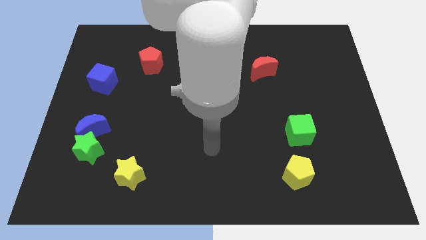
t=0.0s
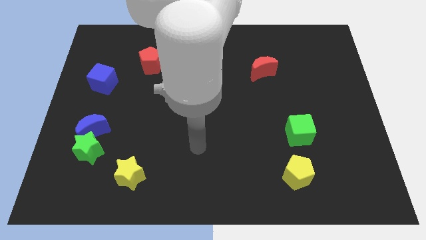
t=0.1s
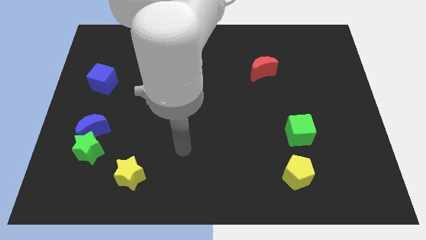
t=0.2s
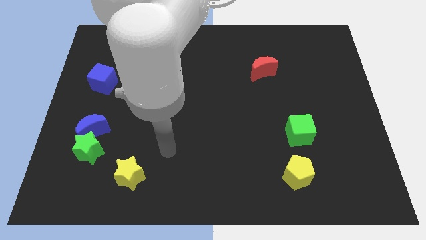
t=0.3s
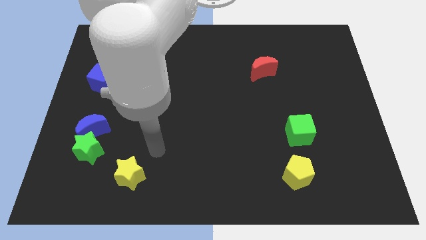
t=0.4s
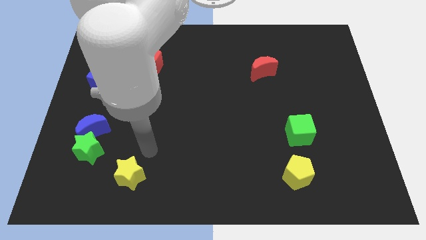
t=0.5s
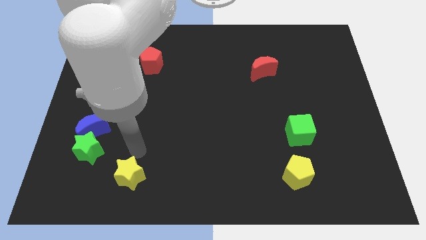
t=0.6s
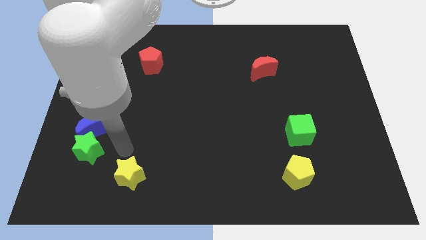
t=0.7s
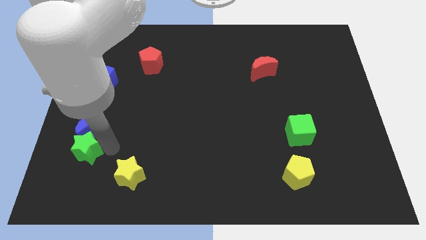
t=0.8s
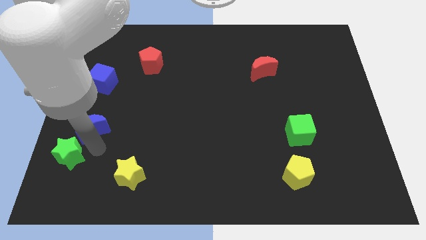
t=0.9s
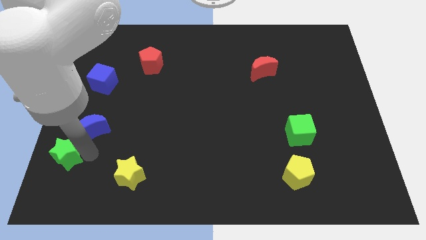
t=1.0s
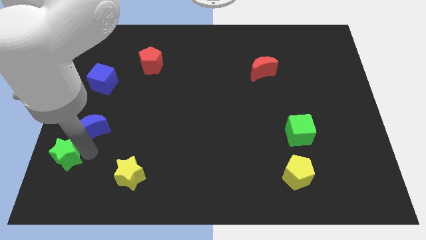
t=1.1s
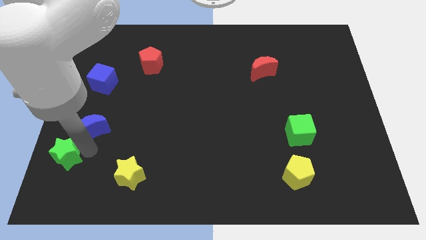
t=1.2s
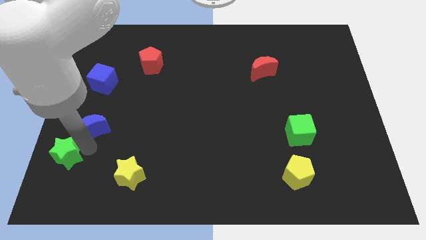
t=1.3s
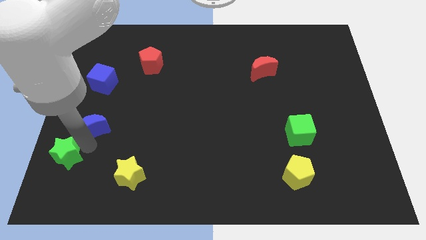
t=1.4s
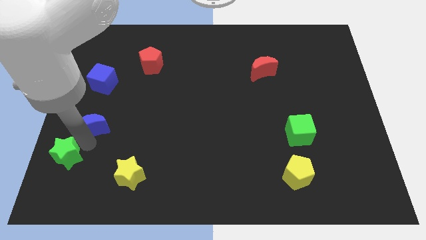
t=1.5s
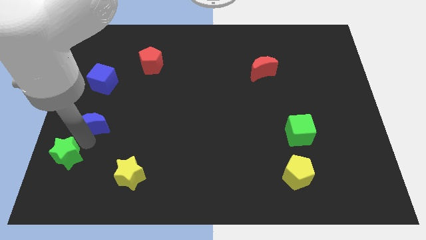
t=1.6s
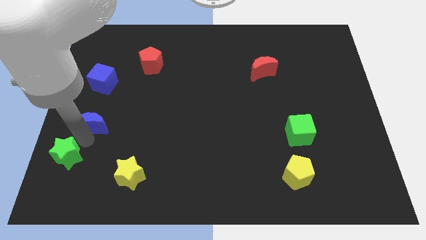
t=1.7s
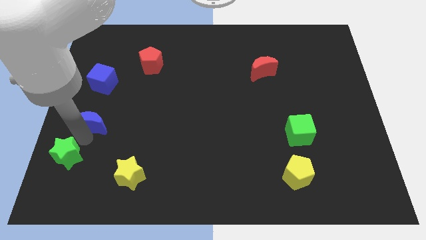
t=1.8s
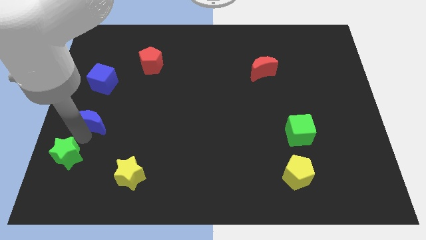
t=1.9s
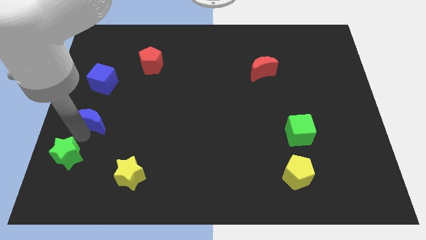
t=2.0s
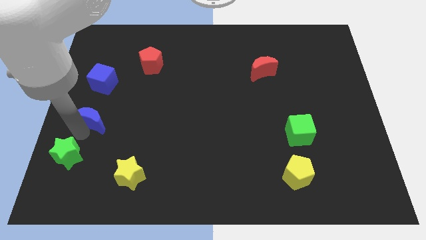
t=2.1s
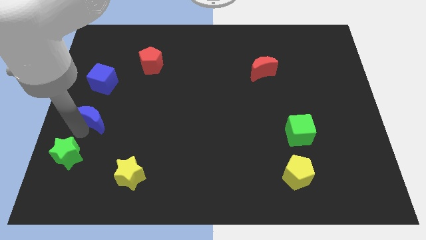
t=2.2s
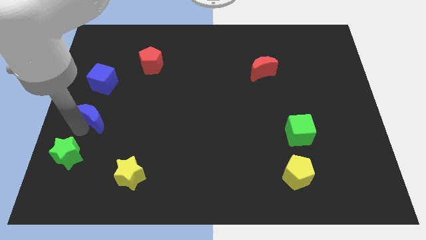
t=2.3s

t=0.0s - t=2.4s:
pull the blue moon apart from the green star

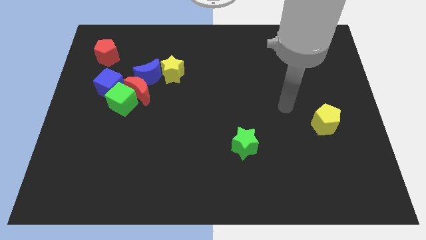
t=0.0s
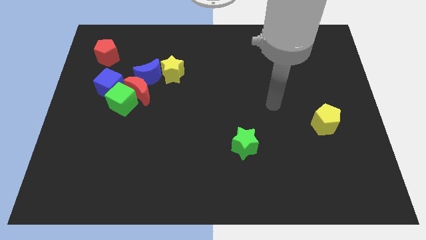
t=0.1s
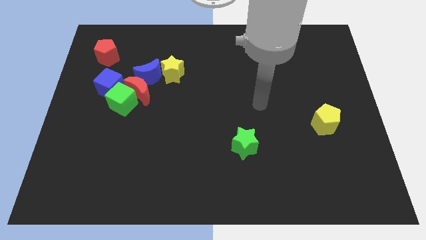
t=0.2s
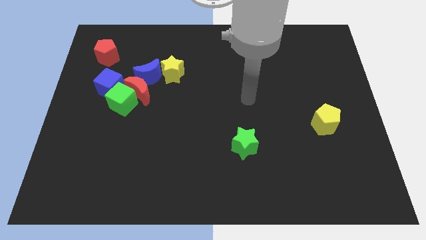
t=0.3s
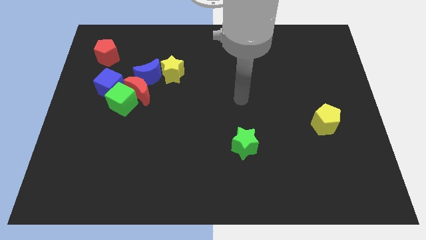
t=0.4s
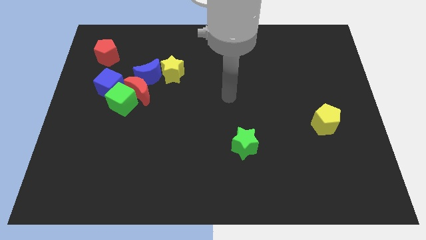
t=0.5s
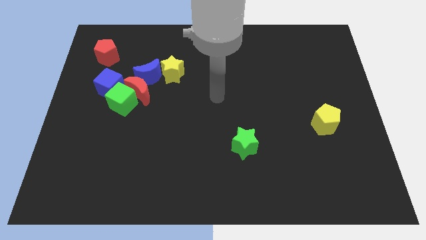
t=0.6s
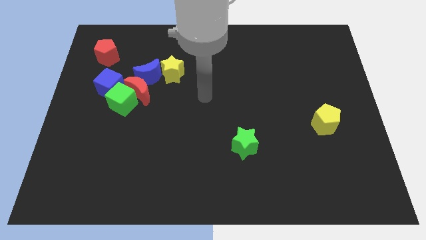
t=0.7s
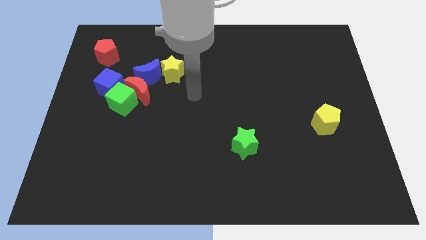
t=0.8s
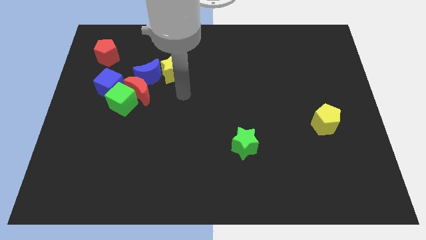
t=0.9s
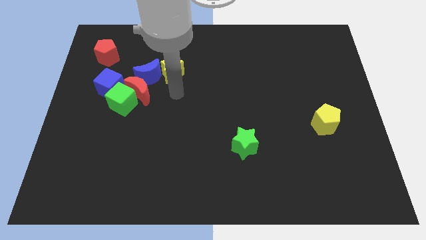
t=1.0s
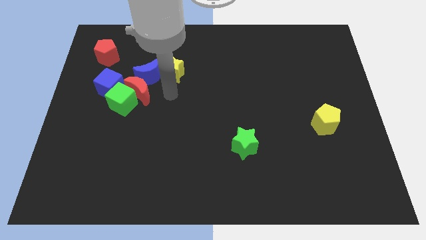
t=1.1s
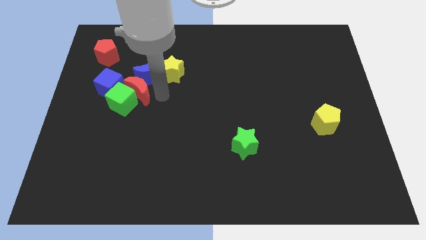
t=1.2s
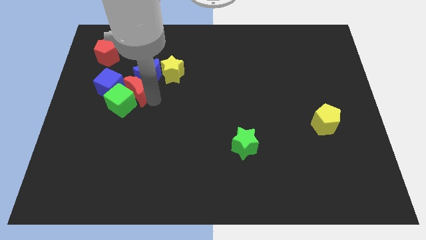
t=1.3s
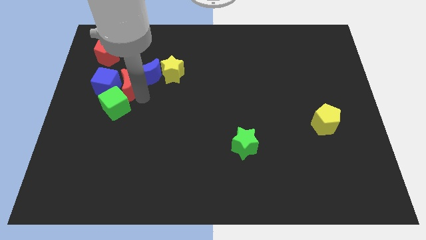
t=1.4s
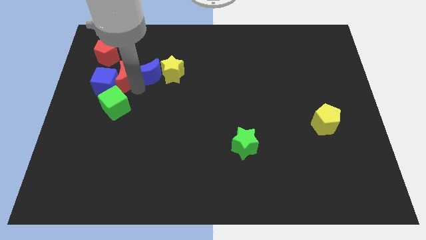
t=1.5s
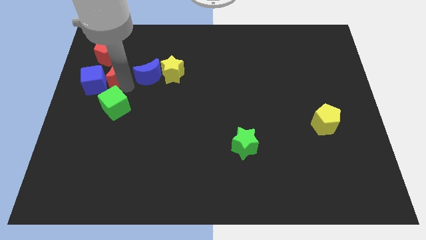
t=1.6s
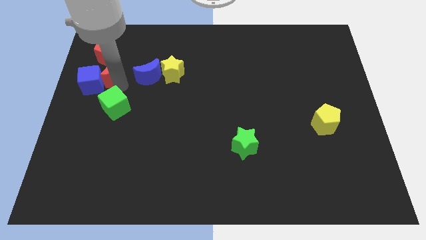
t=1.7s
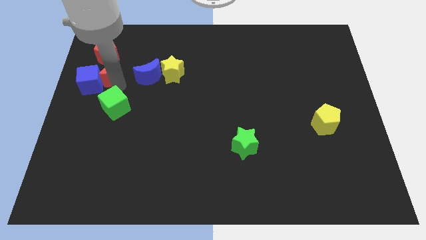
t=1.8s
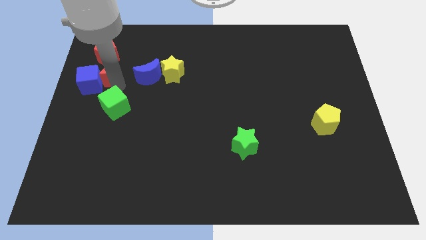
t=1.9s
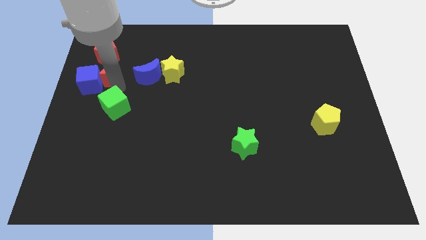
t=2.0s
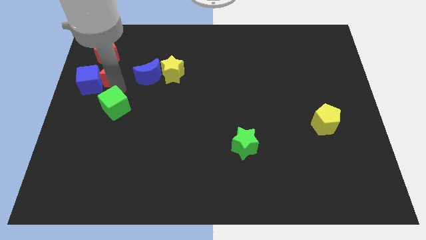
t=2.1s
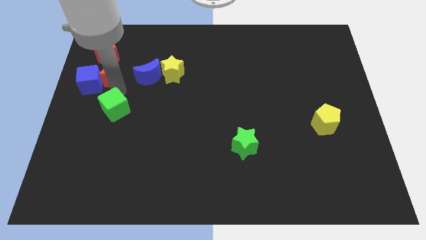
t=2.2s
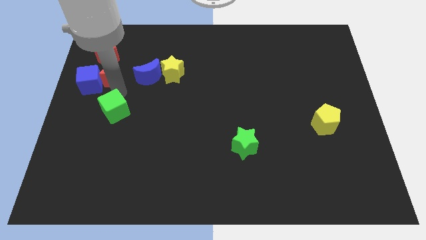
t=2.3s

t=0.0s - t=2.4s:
separate the green cube from the red moon, blue cube, and blue moon

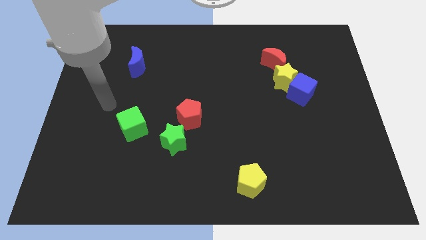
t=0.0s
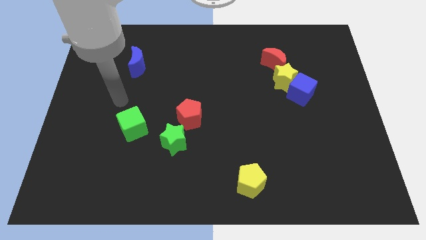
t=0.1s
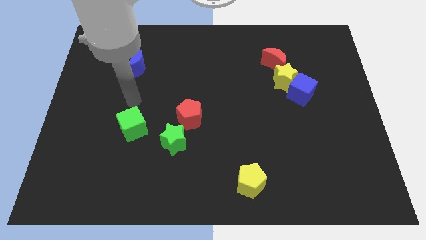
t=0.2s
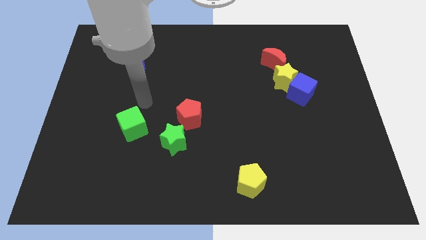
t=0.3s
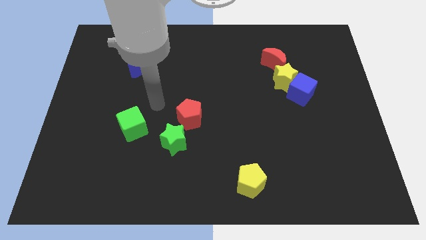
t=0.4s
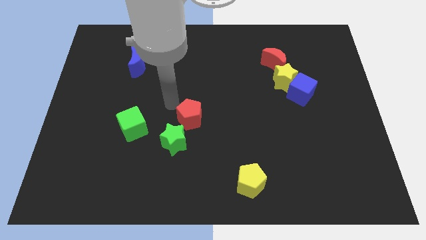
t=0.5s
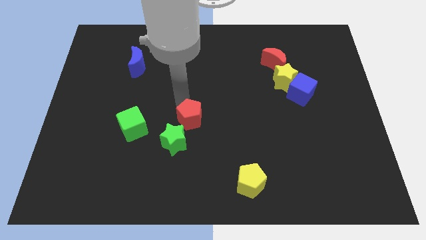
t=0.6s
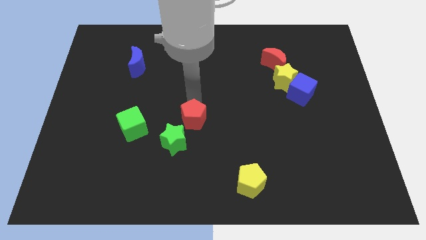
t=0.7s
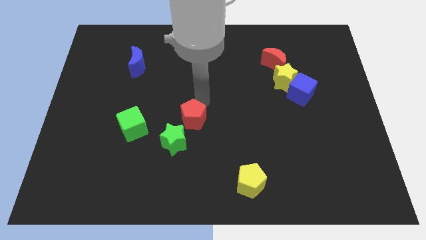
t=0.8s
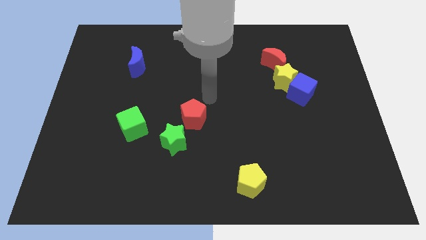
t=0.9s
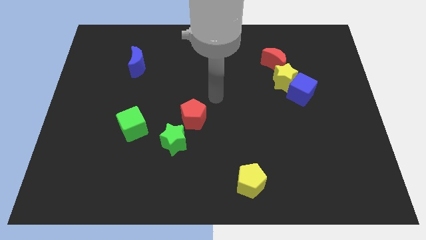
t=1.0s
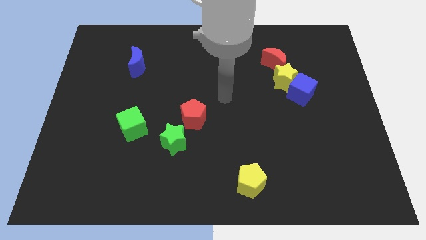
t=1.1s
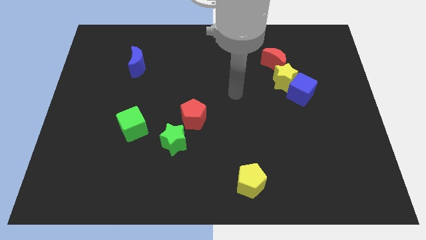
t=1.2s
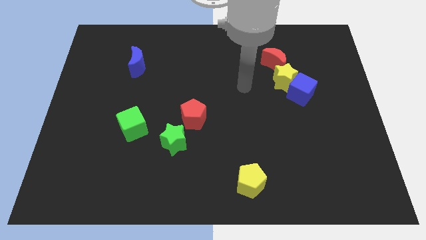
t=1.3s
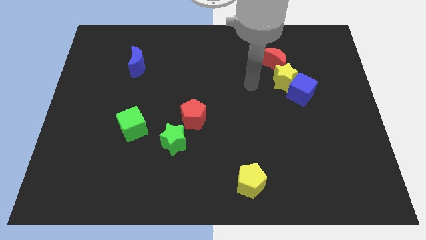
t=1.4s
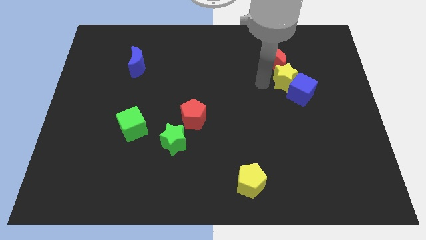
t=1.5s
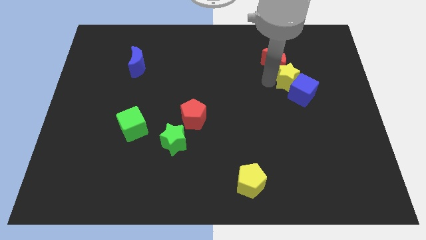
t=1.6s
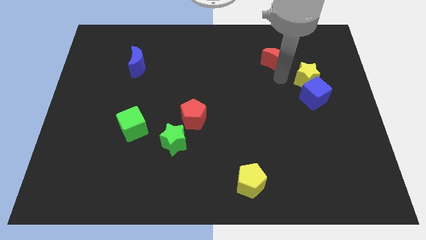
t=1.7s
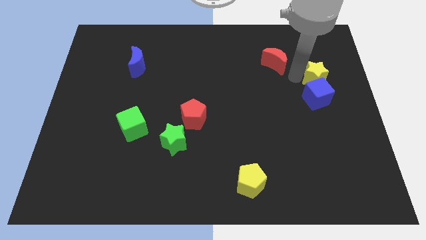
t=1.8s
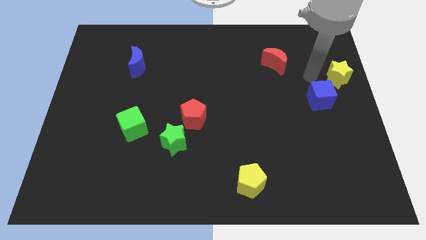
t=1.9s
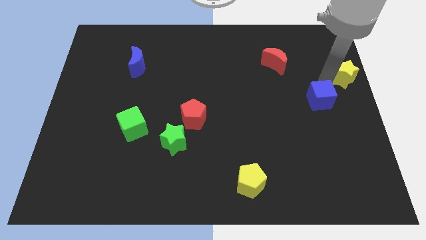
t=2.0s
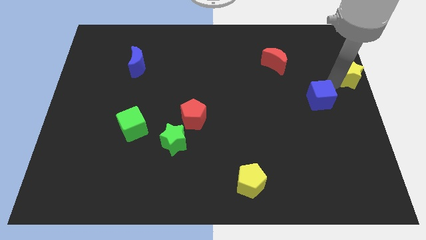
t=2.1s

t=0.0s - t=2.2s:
move the blue cube away from the yellow star

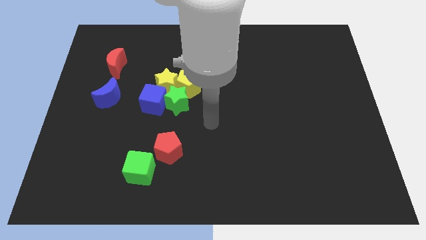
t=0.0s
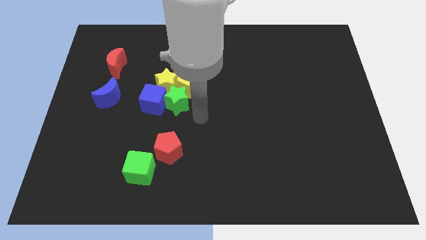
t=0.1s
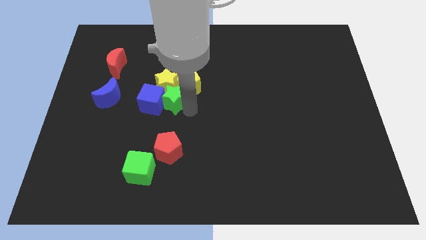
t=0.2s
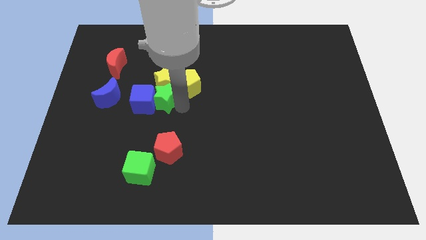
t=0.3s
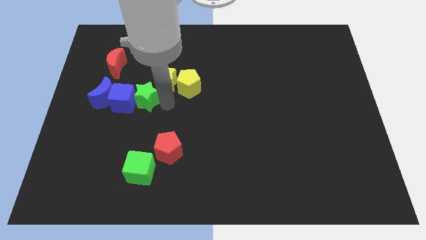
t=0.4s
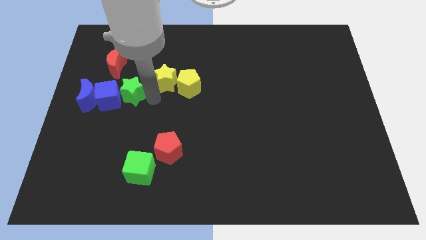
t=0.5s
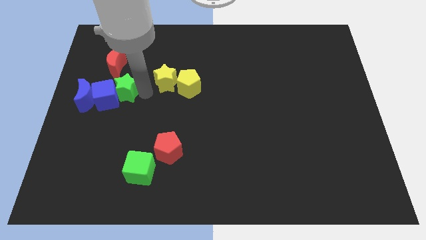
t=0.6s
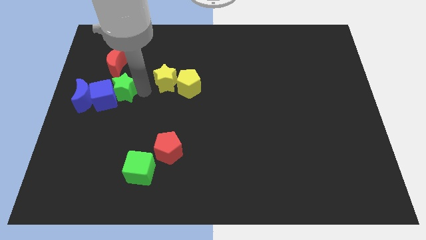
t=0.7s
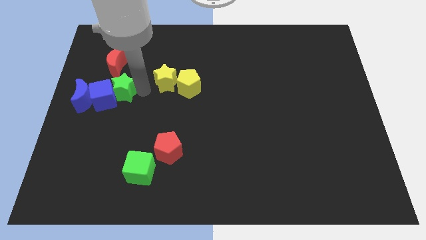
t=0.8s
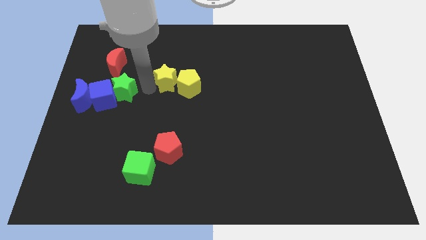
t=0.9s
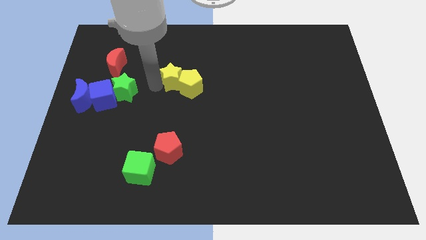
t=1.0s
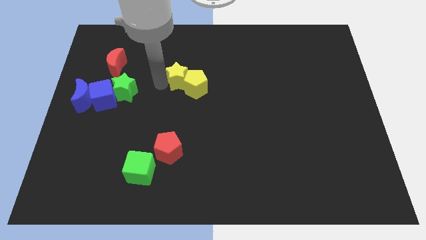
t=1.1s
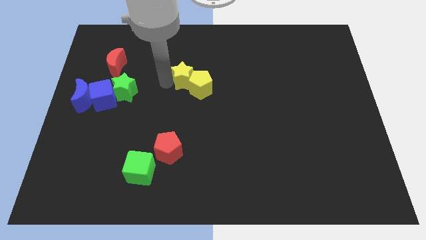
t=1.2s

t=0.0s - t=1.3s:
separate the yellow star from the group of blocks

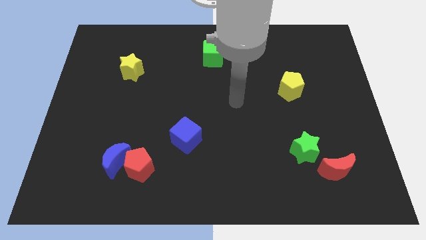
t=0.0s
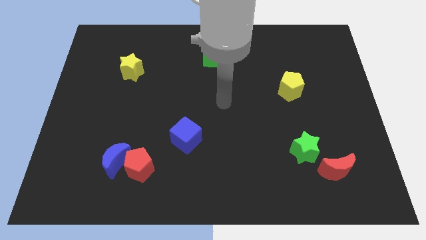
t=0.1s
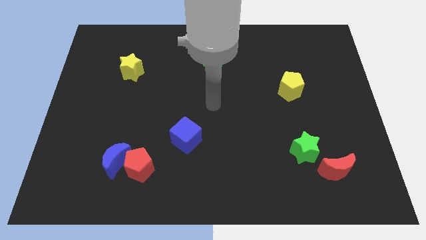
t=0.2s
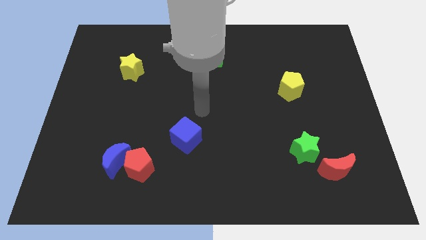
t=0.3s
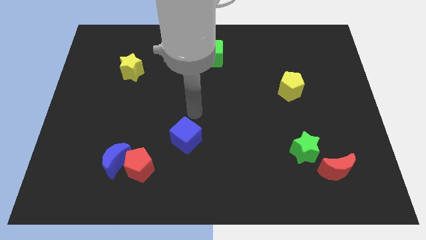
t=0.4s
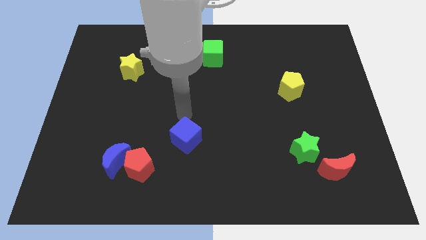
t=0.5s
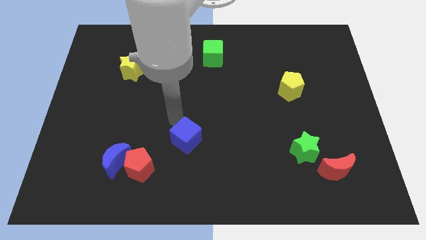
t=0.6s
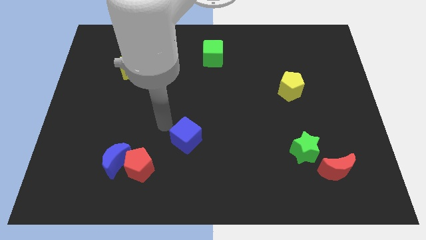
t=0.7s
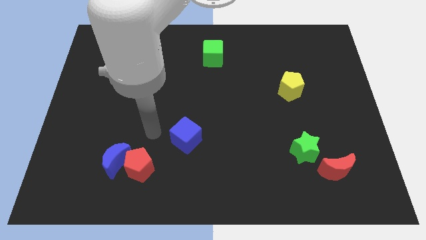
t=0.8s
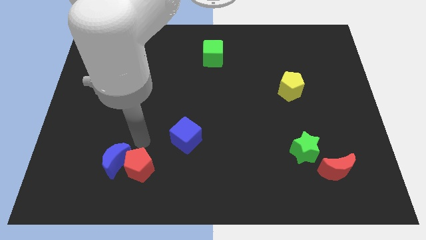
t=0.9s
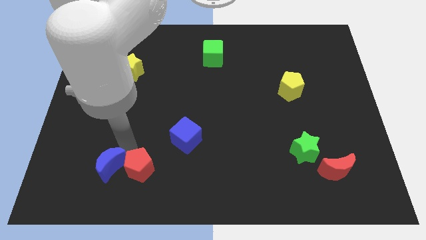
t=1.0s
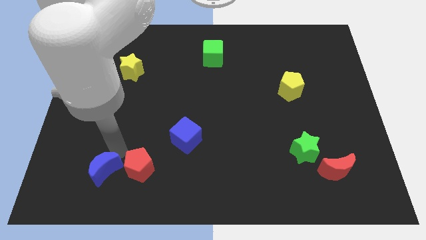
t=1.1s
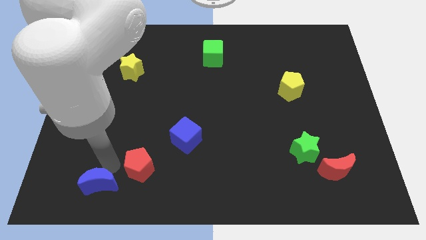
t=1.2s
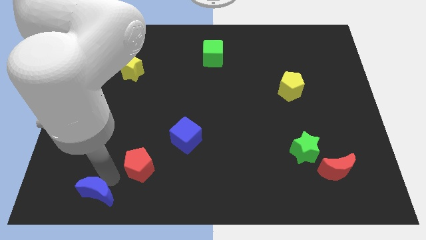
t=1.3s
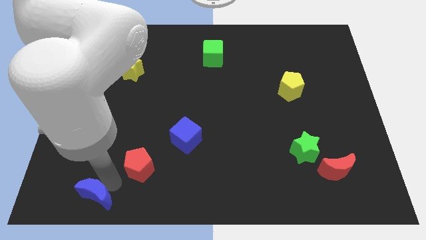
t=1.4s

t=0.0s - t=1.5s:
move the red pentagon away from the blue moon
